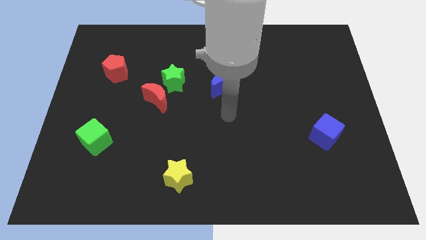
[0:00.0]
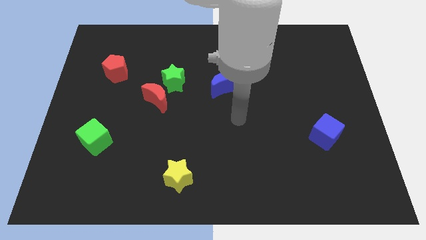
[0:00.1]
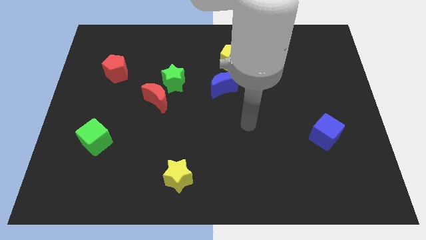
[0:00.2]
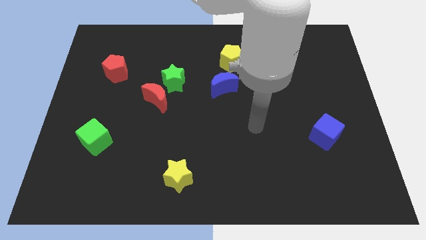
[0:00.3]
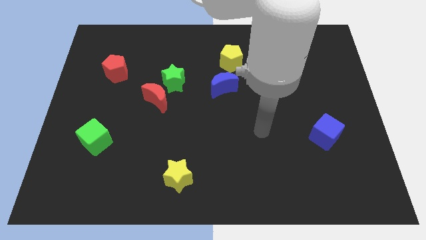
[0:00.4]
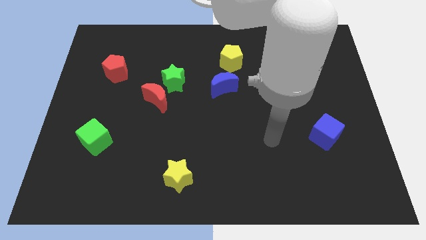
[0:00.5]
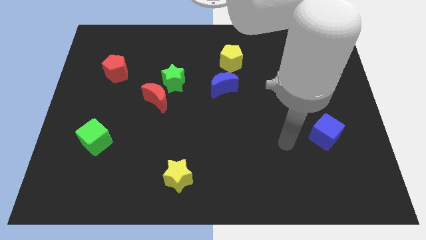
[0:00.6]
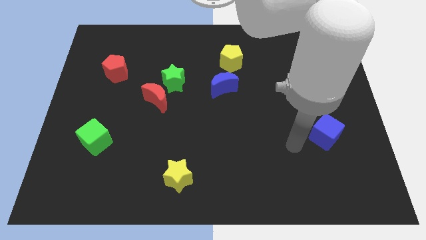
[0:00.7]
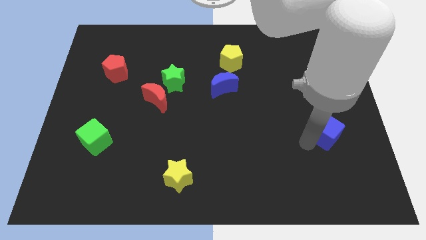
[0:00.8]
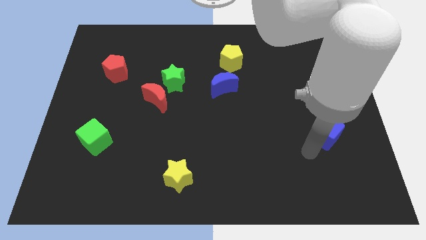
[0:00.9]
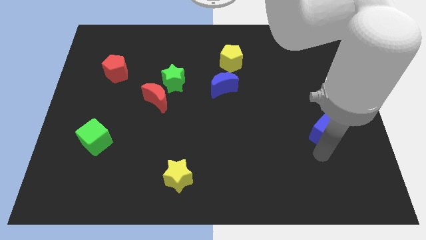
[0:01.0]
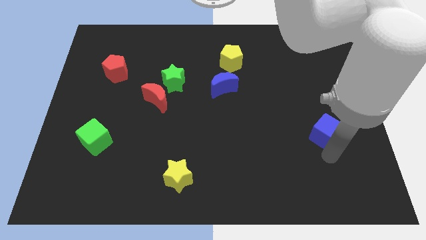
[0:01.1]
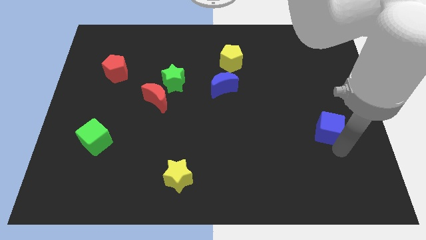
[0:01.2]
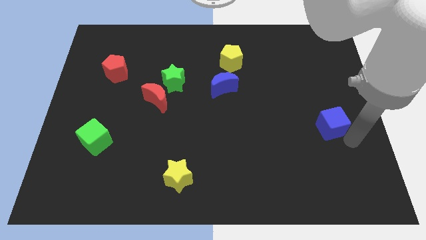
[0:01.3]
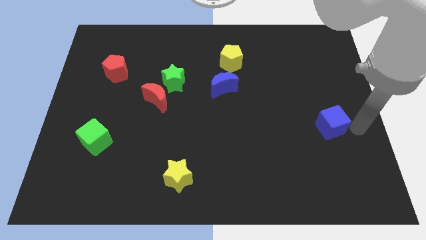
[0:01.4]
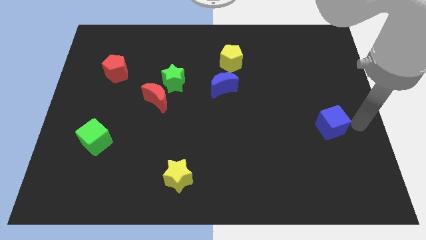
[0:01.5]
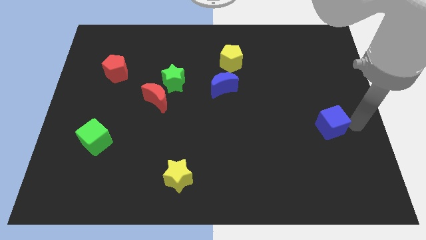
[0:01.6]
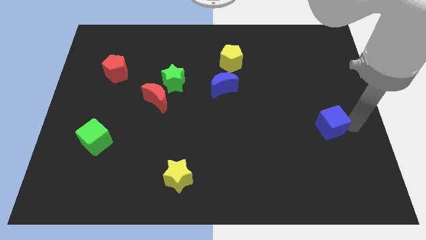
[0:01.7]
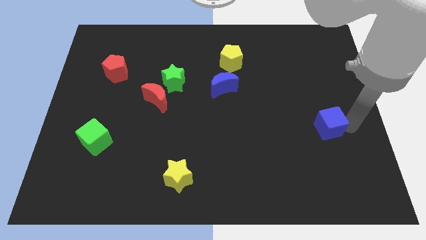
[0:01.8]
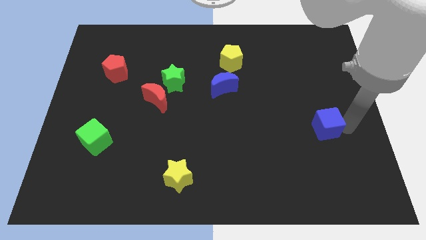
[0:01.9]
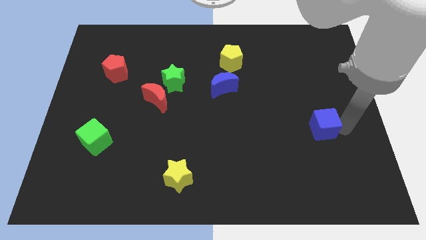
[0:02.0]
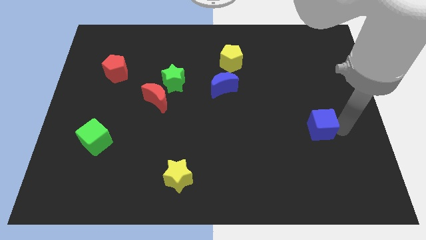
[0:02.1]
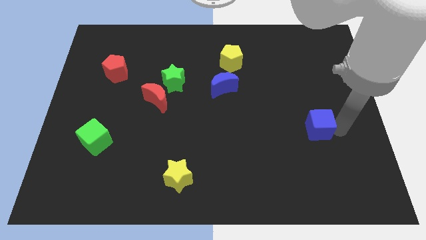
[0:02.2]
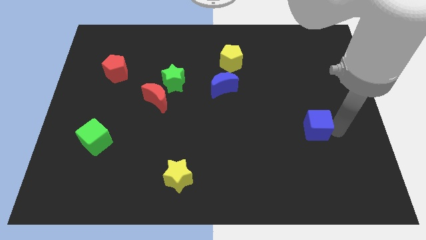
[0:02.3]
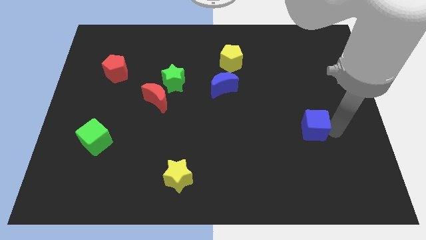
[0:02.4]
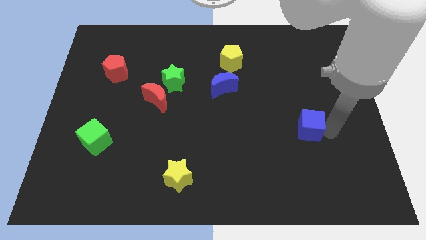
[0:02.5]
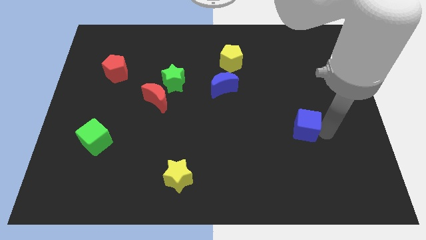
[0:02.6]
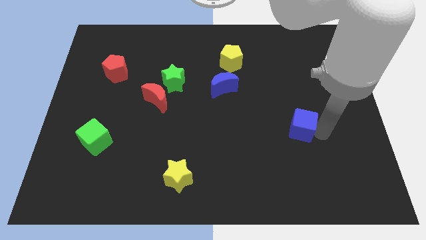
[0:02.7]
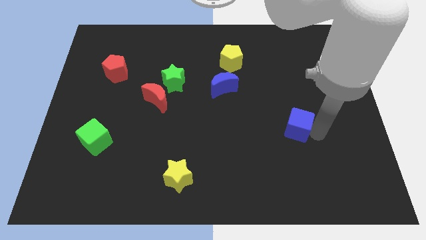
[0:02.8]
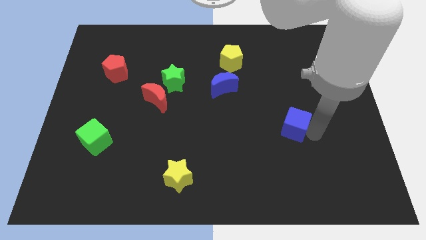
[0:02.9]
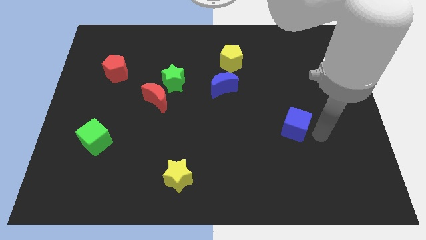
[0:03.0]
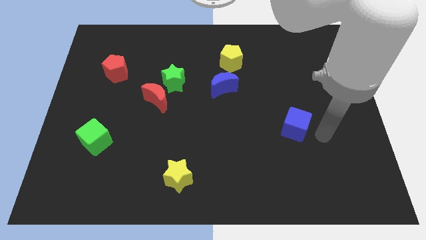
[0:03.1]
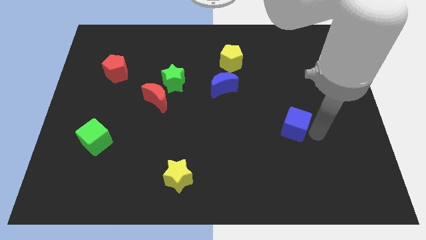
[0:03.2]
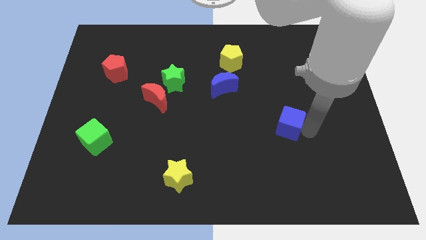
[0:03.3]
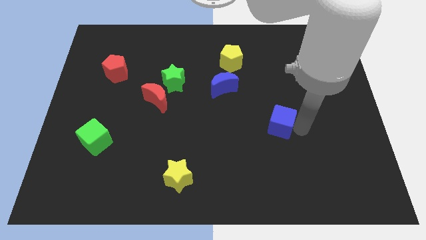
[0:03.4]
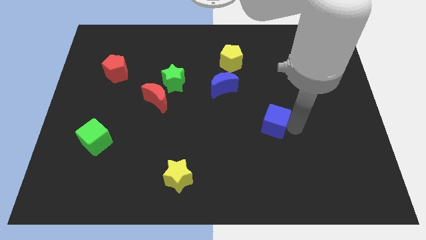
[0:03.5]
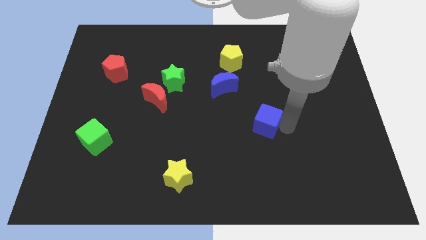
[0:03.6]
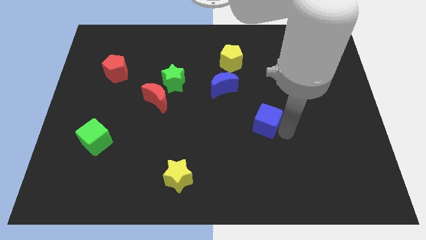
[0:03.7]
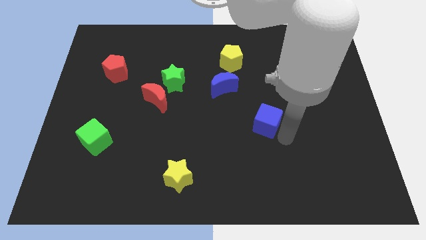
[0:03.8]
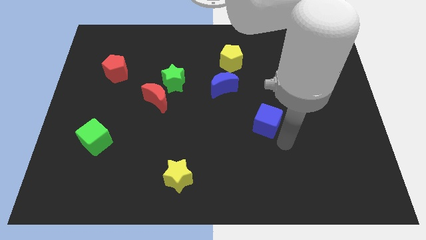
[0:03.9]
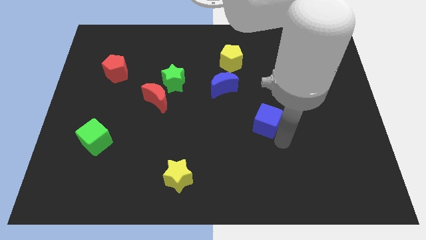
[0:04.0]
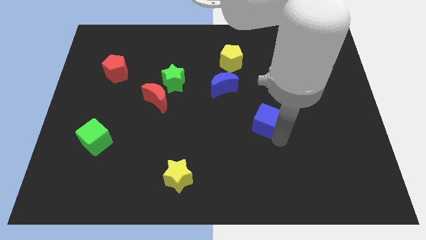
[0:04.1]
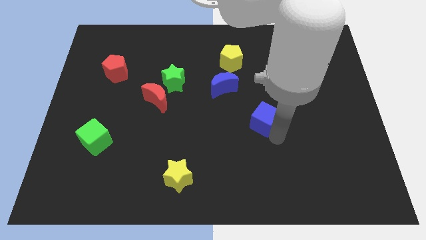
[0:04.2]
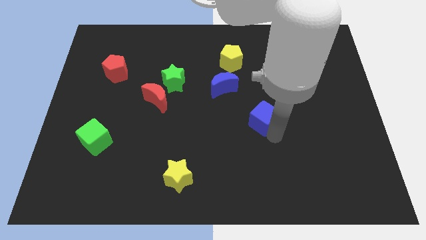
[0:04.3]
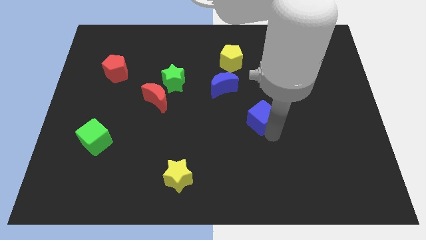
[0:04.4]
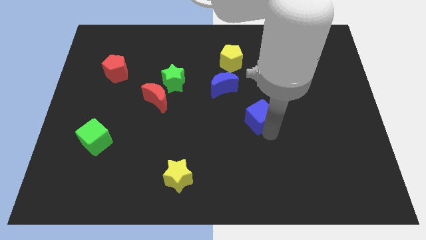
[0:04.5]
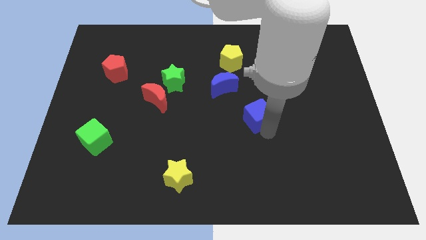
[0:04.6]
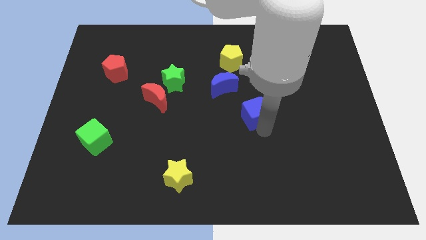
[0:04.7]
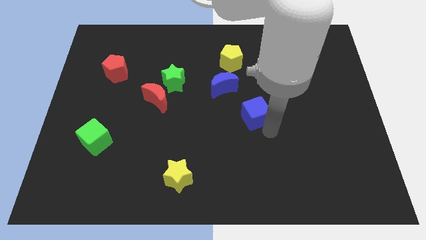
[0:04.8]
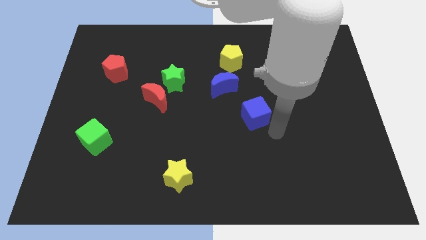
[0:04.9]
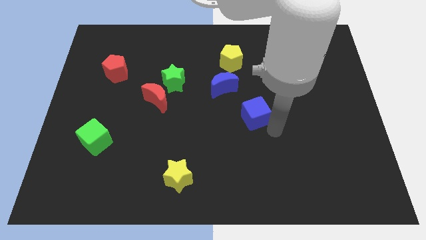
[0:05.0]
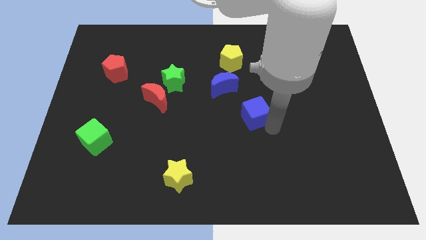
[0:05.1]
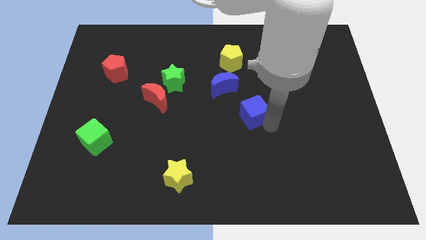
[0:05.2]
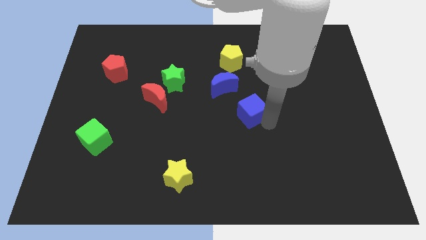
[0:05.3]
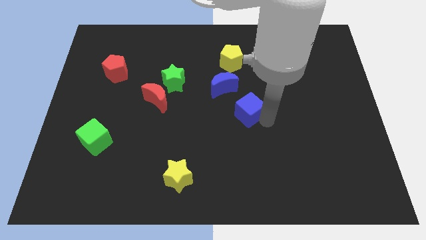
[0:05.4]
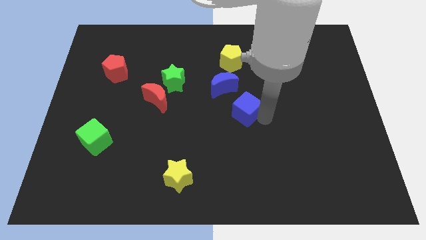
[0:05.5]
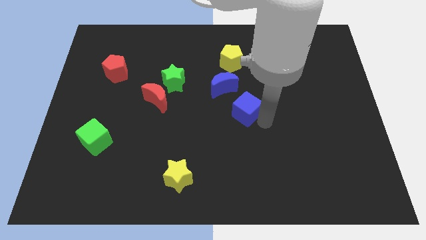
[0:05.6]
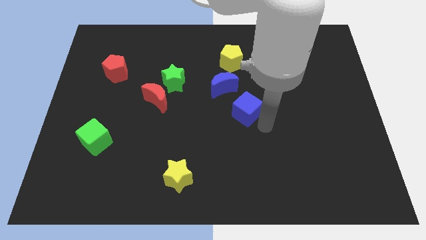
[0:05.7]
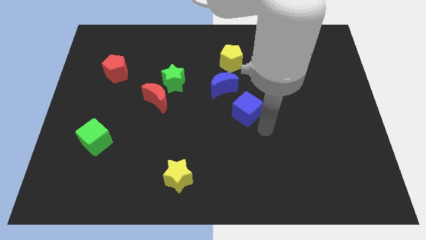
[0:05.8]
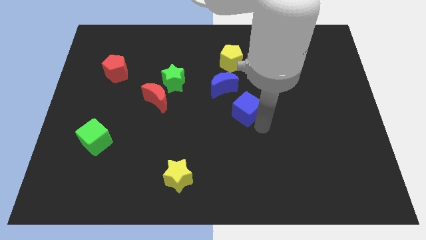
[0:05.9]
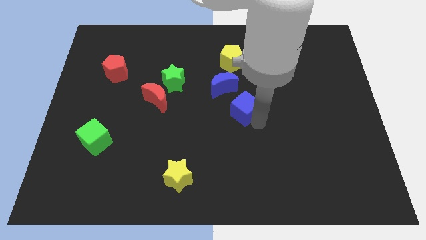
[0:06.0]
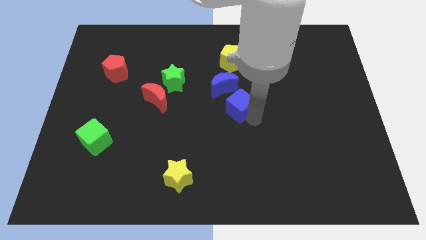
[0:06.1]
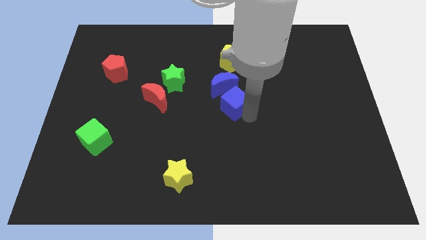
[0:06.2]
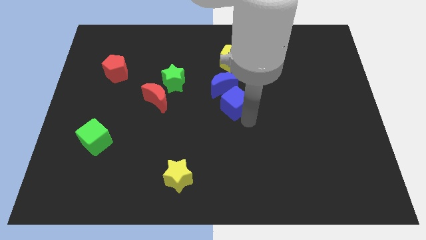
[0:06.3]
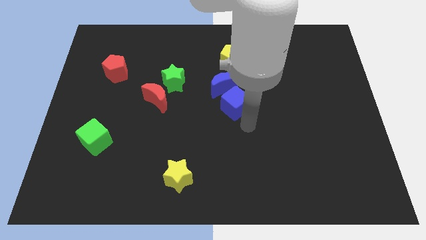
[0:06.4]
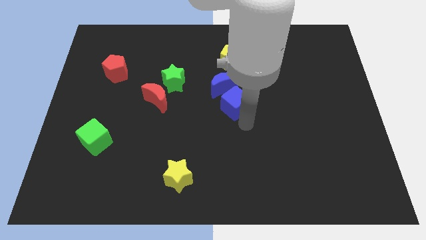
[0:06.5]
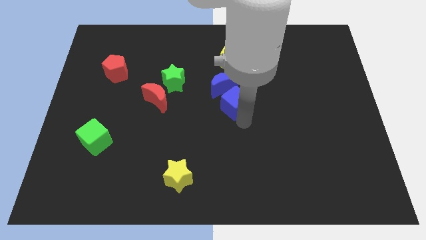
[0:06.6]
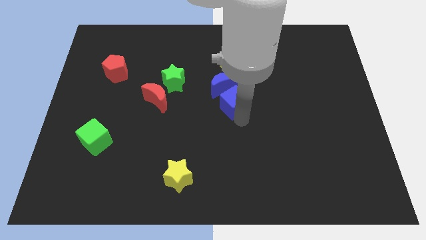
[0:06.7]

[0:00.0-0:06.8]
move the blue cube to the blue moon
